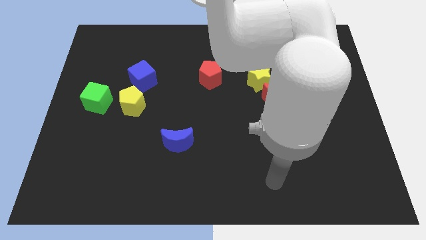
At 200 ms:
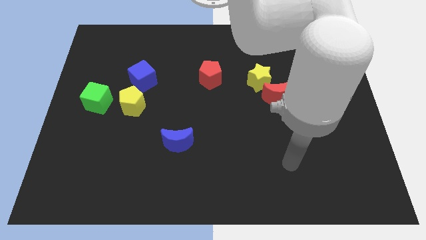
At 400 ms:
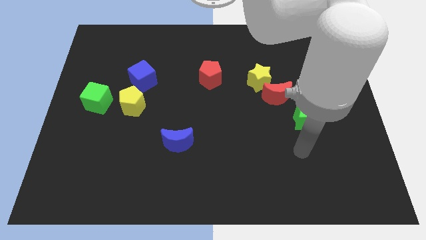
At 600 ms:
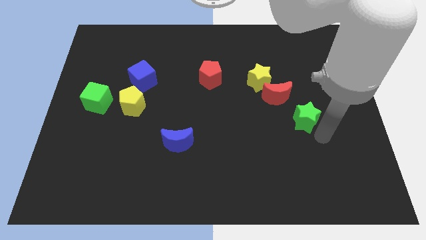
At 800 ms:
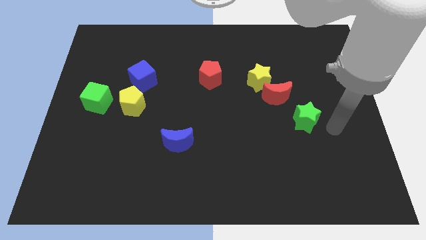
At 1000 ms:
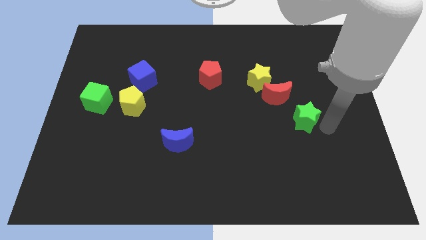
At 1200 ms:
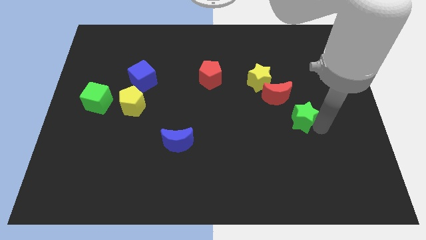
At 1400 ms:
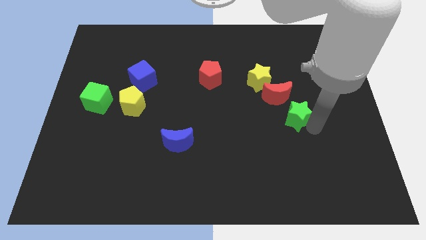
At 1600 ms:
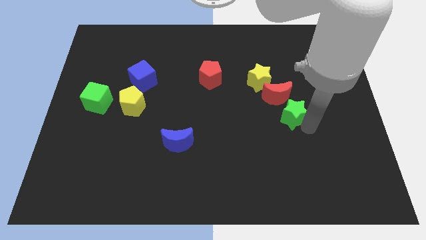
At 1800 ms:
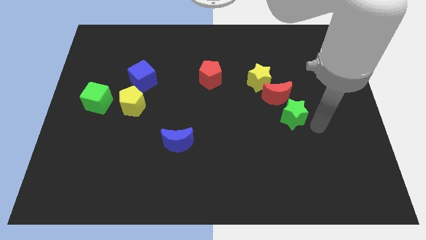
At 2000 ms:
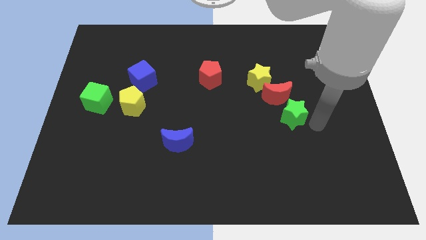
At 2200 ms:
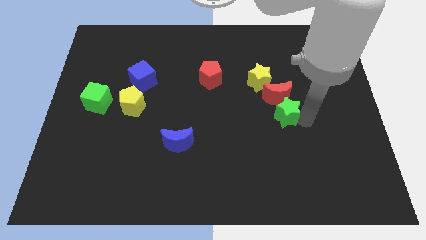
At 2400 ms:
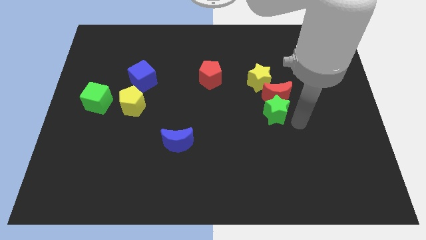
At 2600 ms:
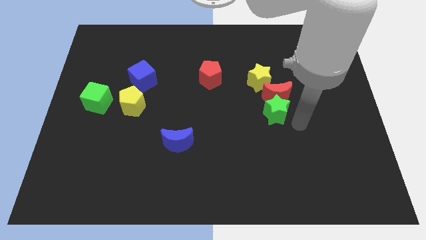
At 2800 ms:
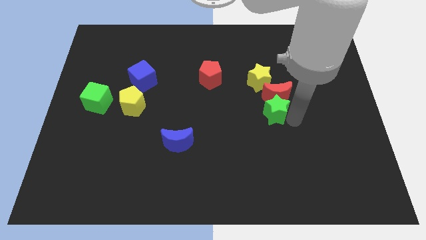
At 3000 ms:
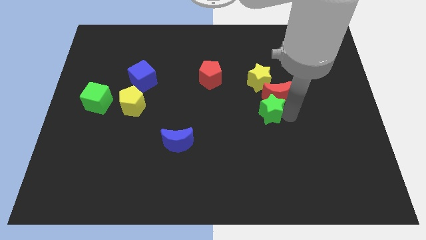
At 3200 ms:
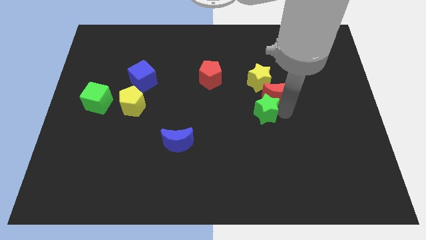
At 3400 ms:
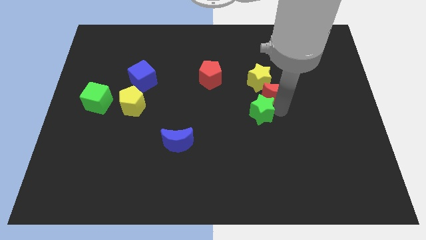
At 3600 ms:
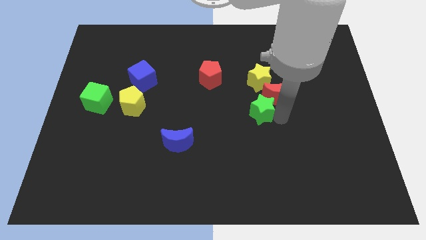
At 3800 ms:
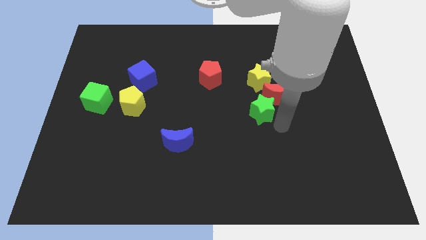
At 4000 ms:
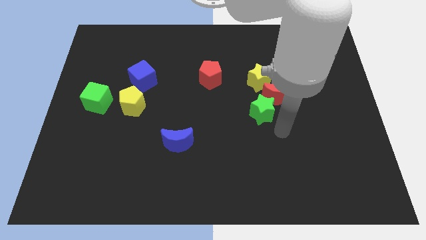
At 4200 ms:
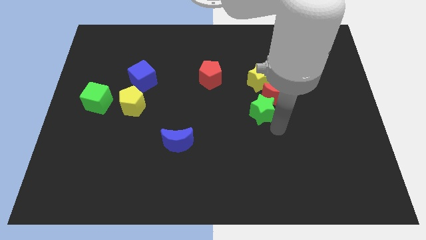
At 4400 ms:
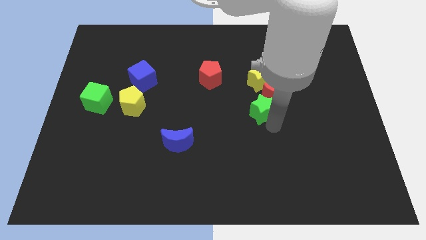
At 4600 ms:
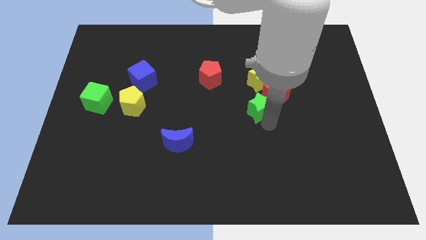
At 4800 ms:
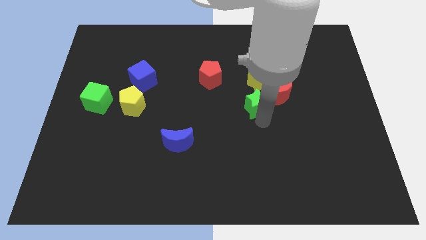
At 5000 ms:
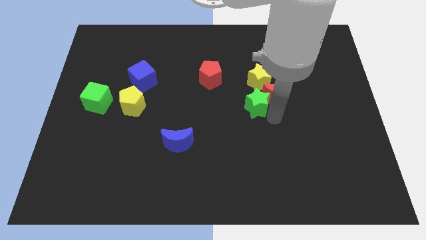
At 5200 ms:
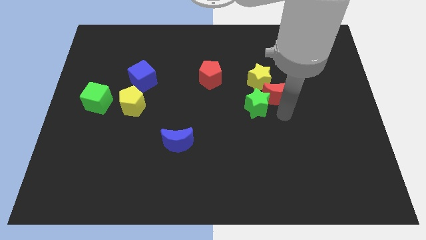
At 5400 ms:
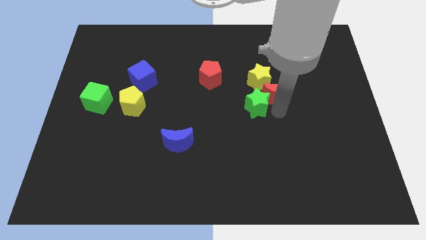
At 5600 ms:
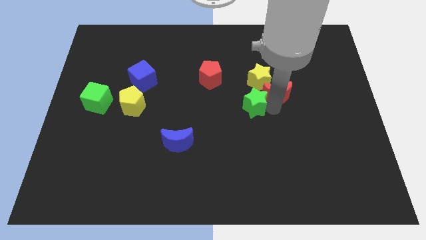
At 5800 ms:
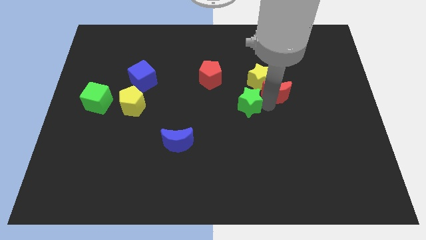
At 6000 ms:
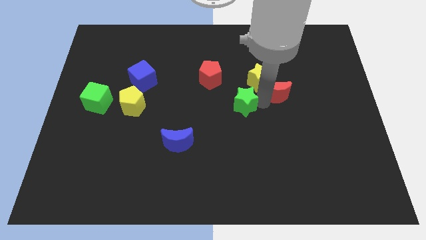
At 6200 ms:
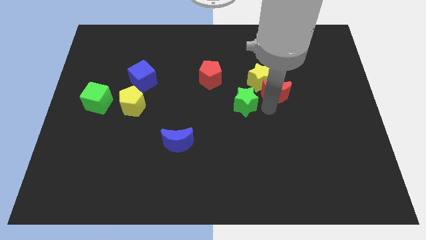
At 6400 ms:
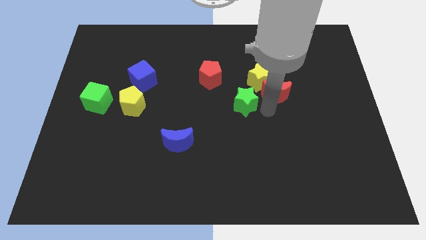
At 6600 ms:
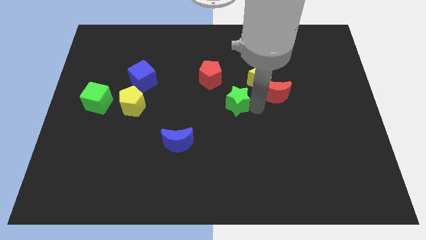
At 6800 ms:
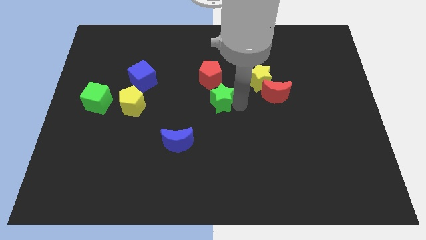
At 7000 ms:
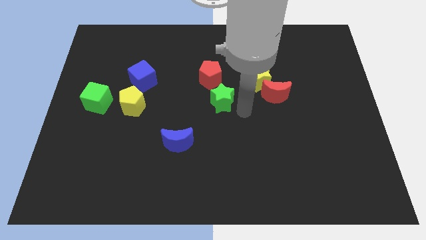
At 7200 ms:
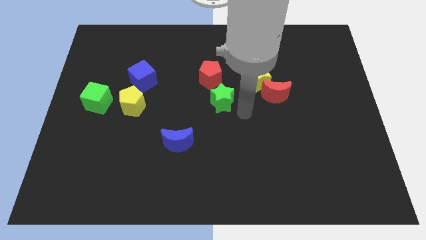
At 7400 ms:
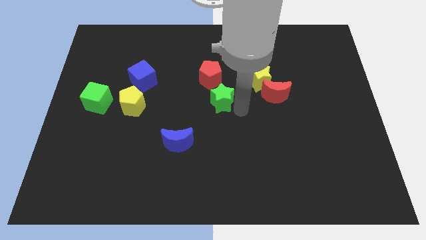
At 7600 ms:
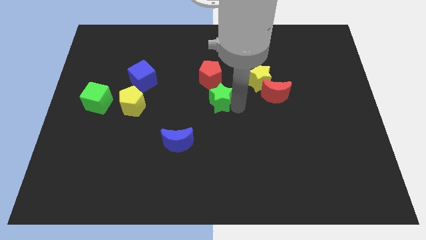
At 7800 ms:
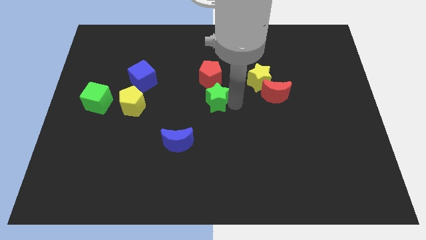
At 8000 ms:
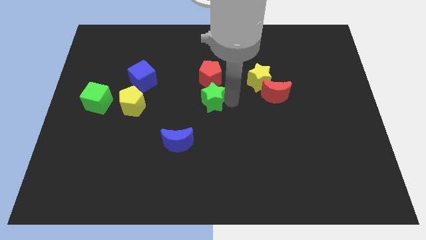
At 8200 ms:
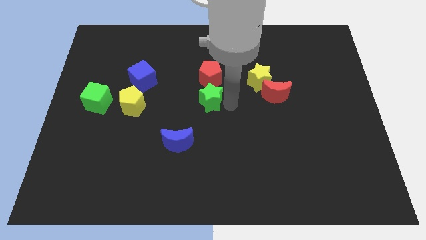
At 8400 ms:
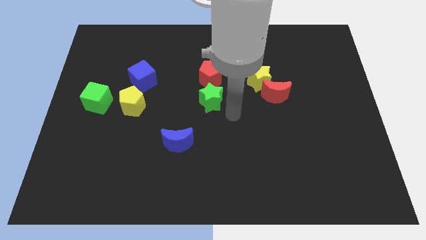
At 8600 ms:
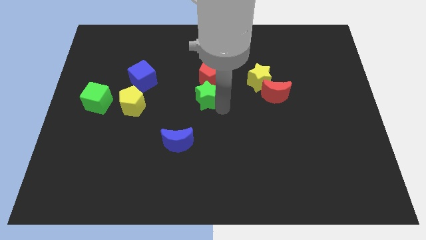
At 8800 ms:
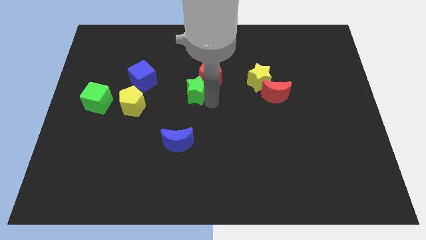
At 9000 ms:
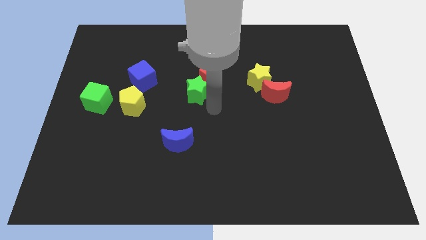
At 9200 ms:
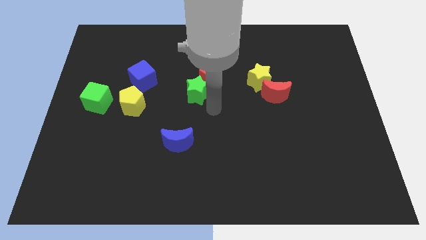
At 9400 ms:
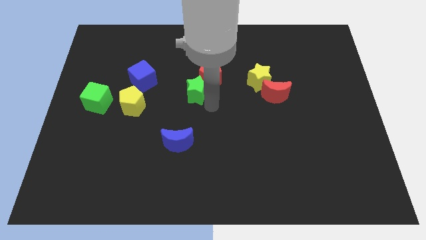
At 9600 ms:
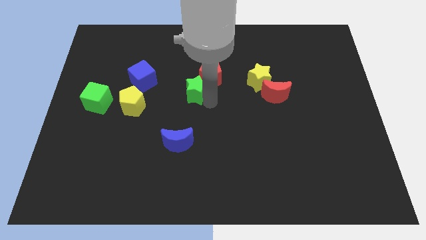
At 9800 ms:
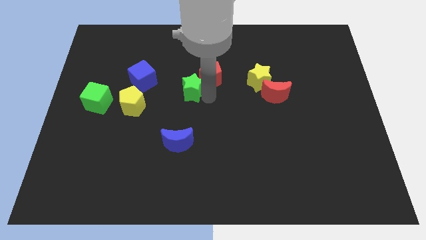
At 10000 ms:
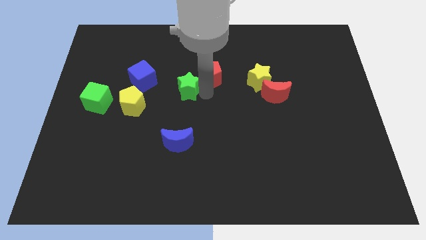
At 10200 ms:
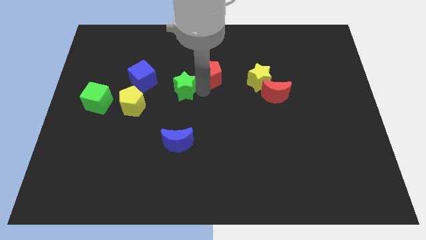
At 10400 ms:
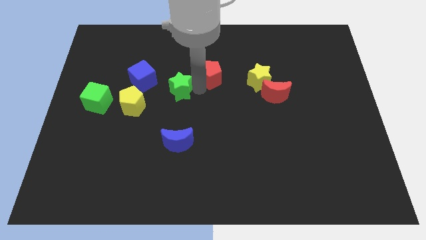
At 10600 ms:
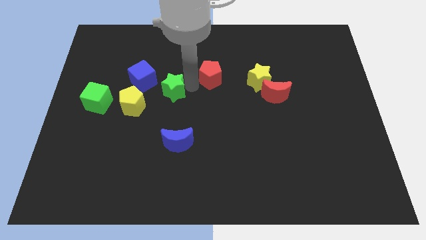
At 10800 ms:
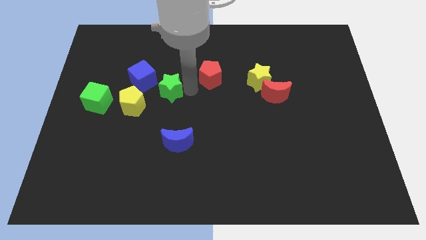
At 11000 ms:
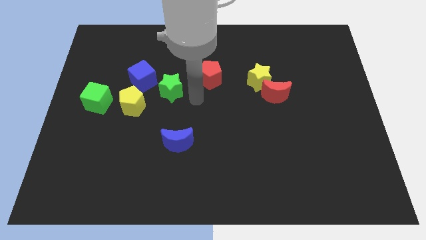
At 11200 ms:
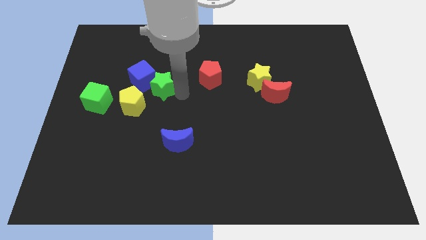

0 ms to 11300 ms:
put the green star towards the blue cube
